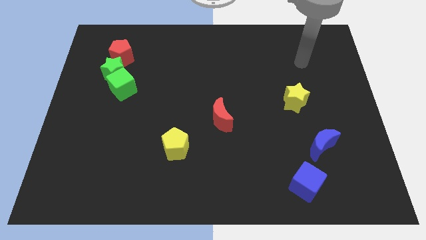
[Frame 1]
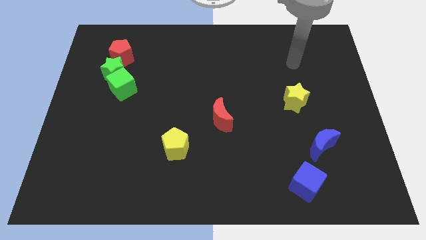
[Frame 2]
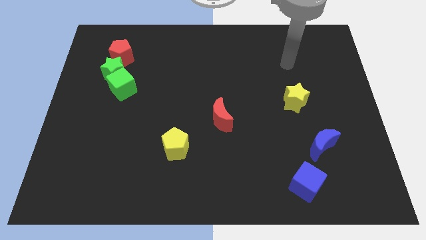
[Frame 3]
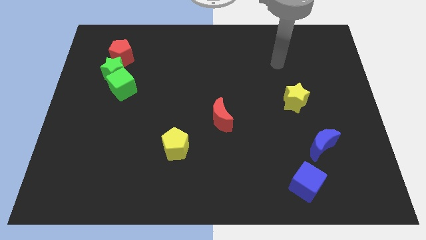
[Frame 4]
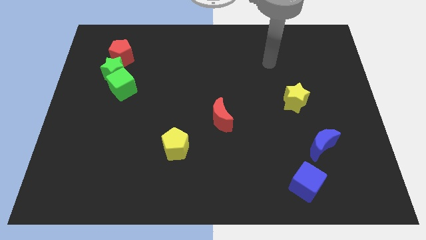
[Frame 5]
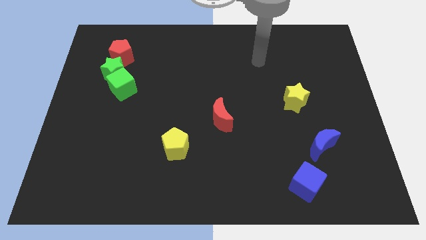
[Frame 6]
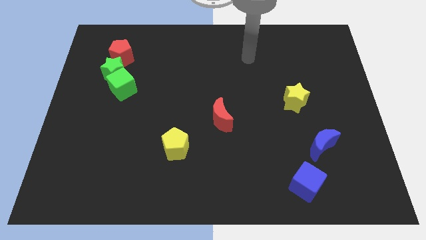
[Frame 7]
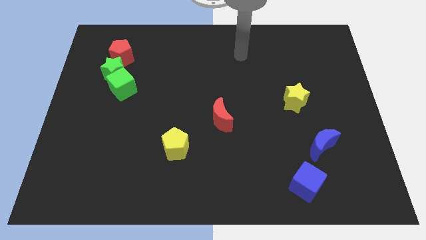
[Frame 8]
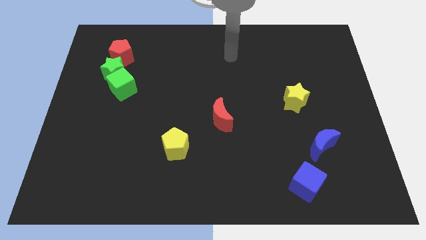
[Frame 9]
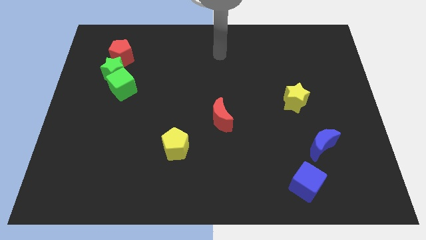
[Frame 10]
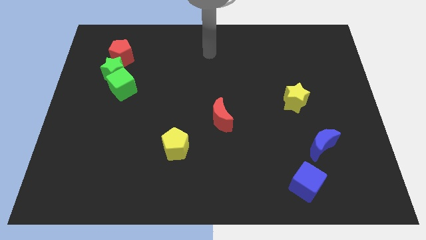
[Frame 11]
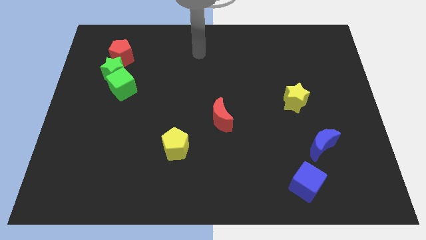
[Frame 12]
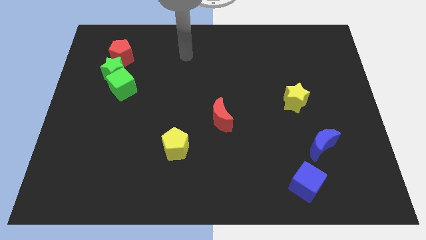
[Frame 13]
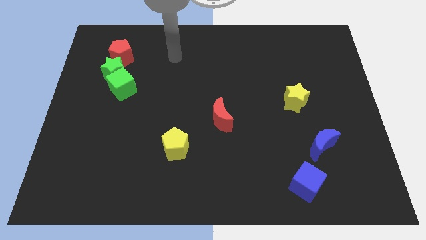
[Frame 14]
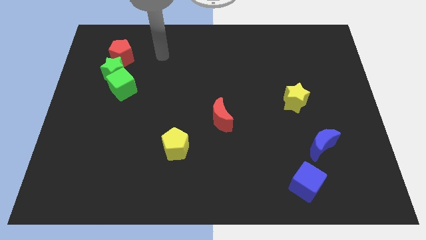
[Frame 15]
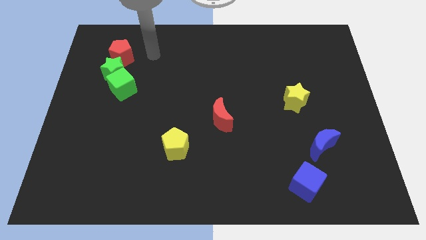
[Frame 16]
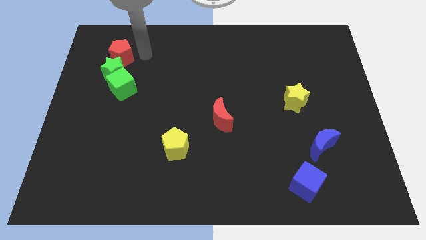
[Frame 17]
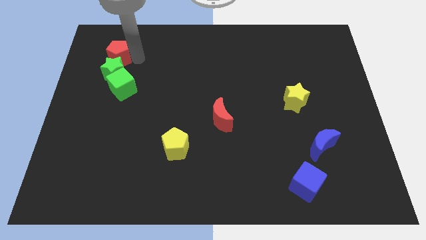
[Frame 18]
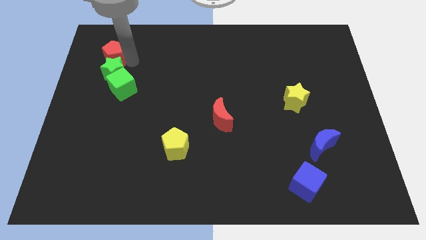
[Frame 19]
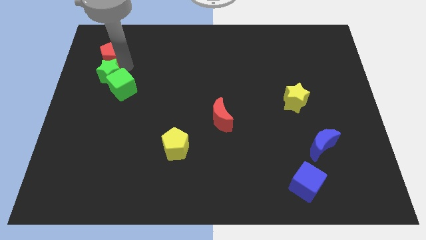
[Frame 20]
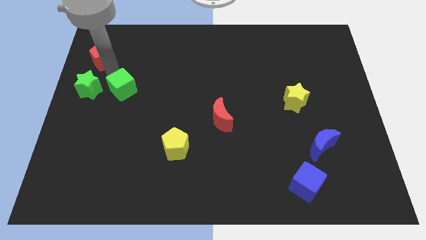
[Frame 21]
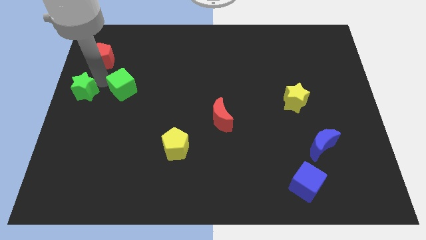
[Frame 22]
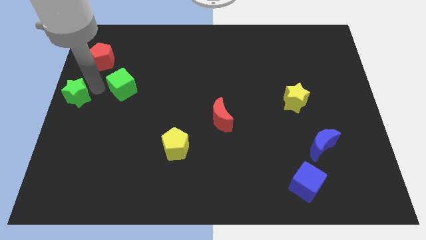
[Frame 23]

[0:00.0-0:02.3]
separate the green cube from the green star

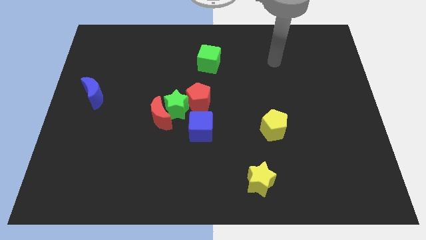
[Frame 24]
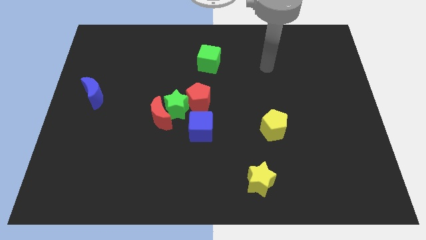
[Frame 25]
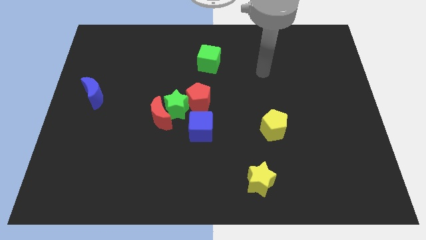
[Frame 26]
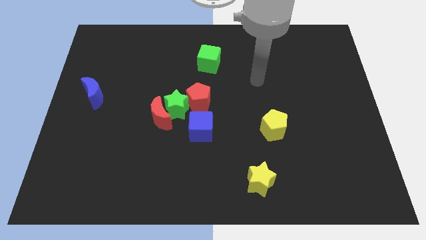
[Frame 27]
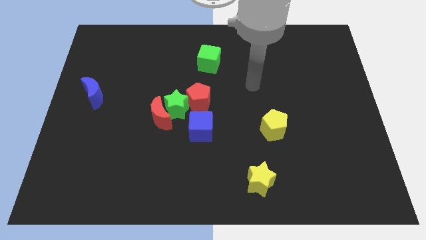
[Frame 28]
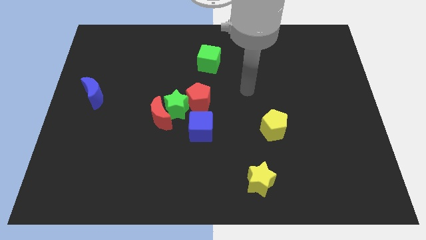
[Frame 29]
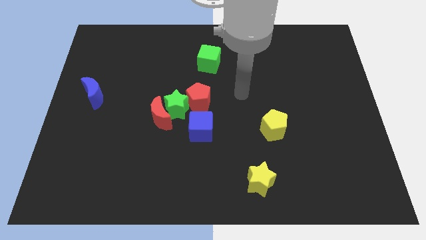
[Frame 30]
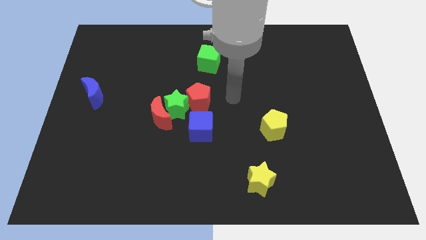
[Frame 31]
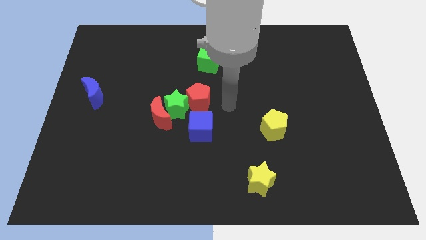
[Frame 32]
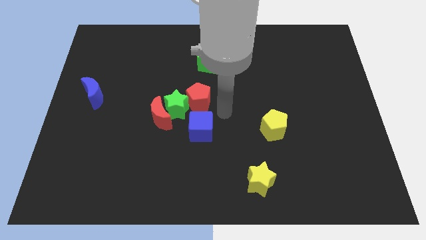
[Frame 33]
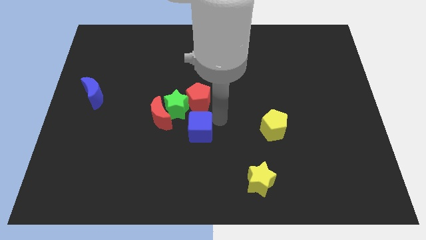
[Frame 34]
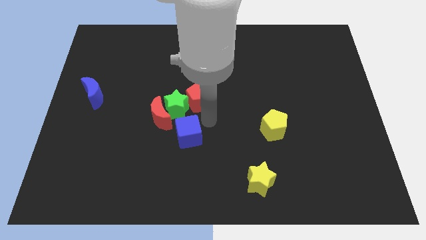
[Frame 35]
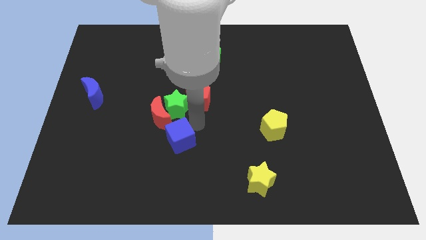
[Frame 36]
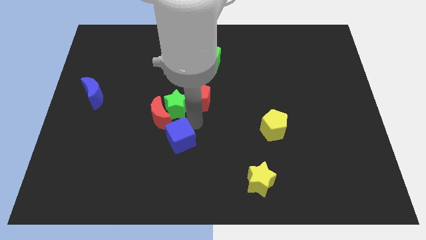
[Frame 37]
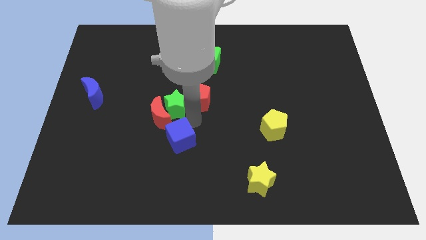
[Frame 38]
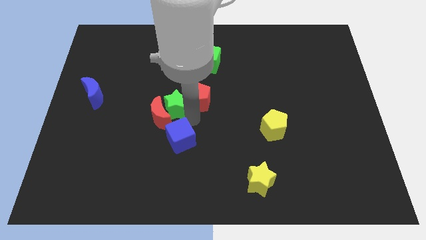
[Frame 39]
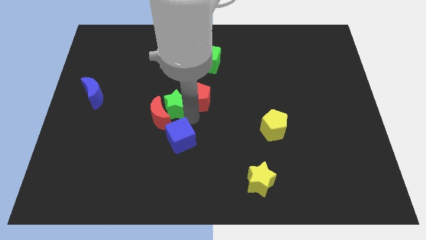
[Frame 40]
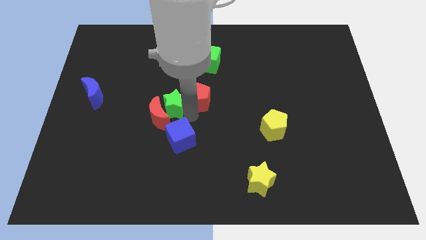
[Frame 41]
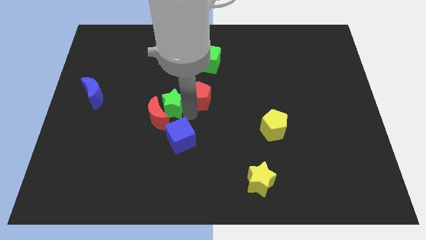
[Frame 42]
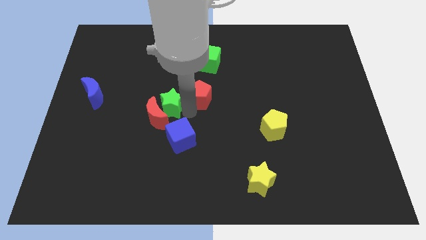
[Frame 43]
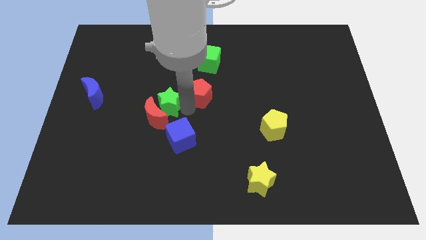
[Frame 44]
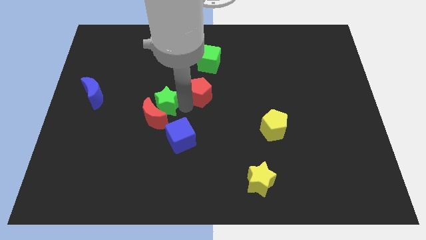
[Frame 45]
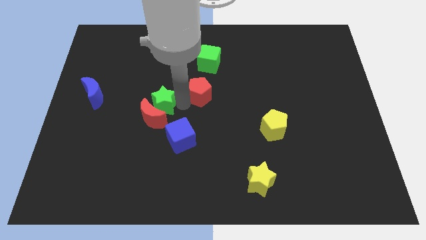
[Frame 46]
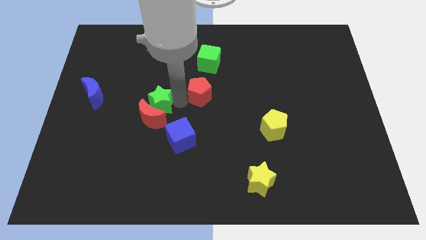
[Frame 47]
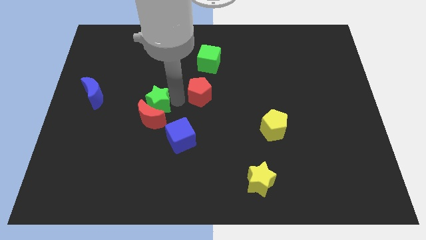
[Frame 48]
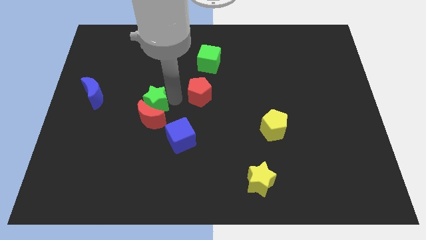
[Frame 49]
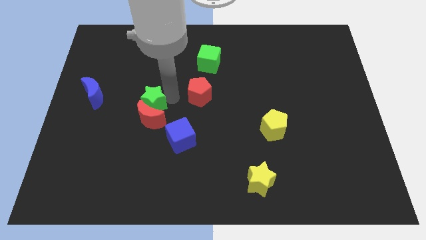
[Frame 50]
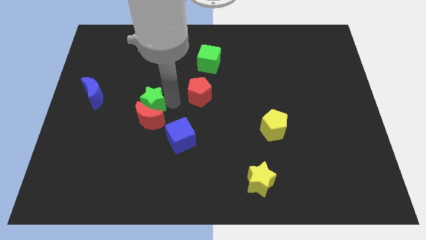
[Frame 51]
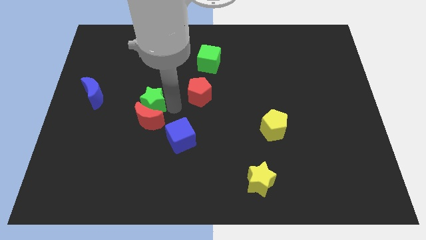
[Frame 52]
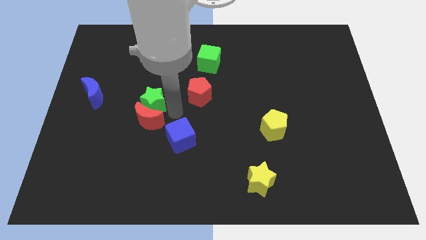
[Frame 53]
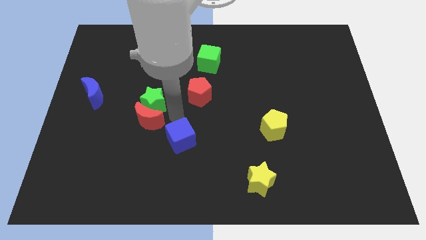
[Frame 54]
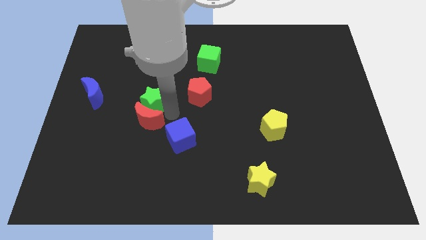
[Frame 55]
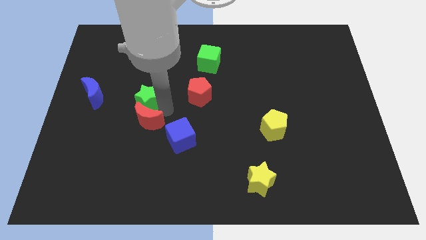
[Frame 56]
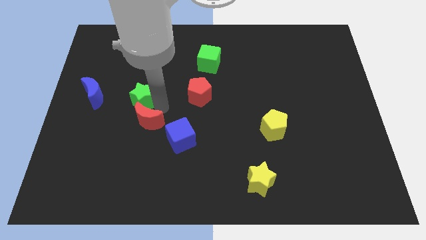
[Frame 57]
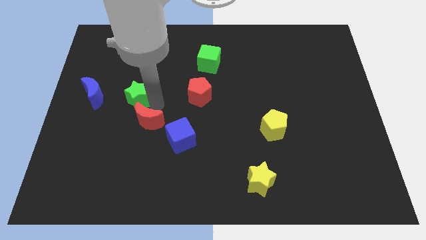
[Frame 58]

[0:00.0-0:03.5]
pull the green star apart from the group of blocks

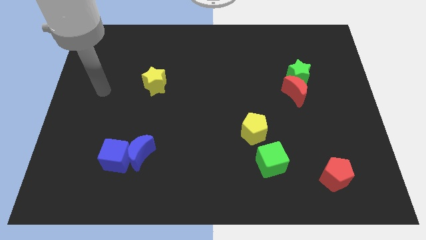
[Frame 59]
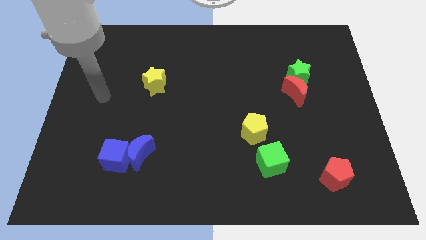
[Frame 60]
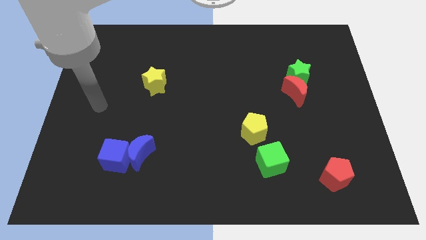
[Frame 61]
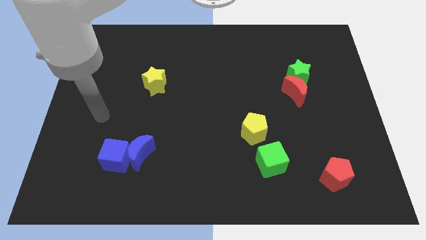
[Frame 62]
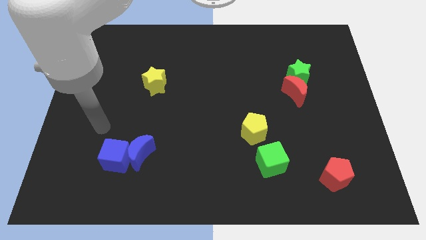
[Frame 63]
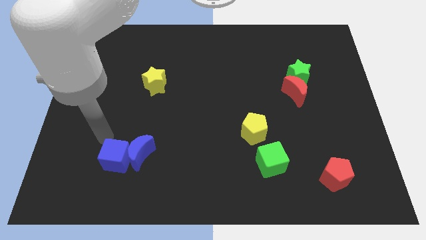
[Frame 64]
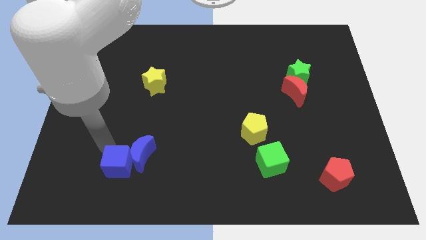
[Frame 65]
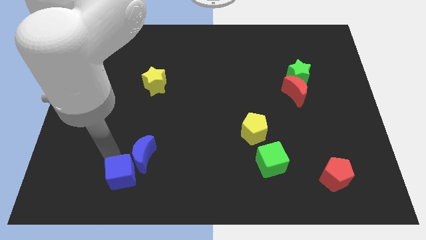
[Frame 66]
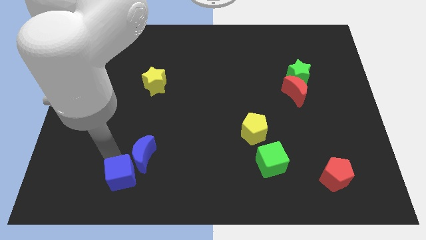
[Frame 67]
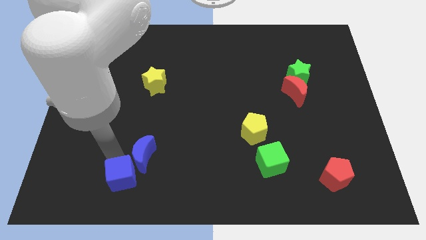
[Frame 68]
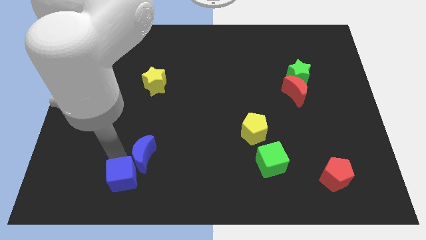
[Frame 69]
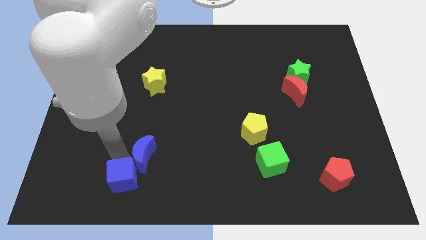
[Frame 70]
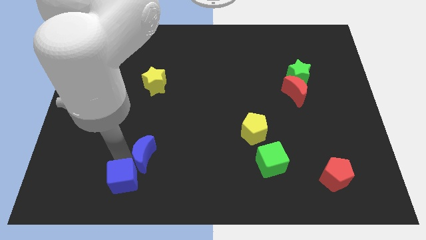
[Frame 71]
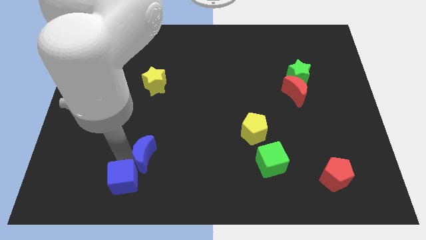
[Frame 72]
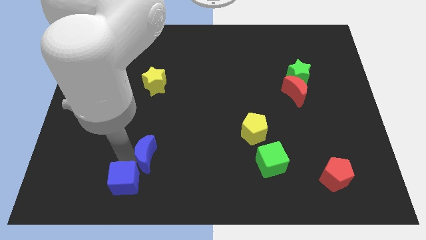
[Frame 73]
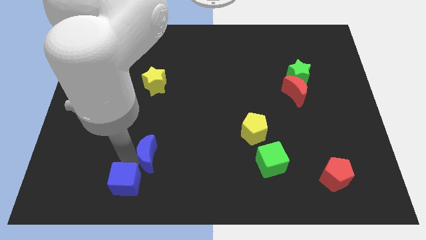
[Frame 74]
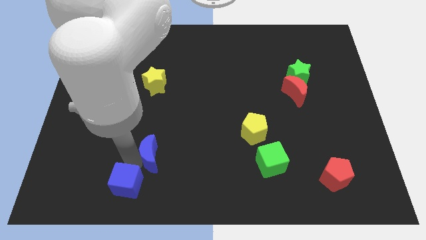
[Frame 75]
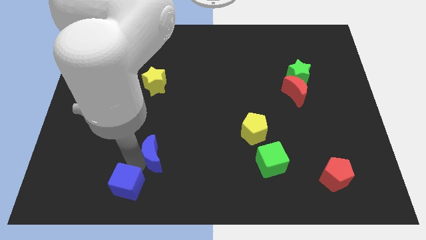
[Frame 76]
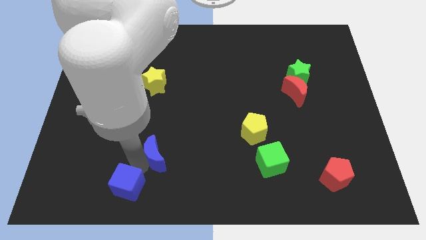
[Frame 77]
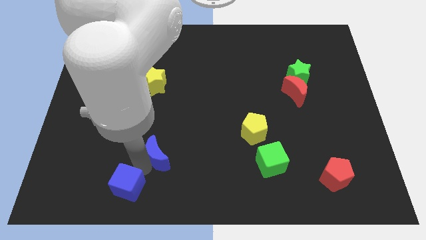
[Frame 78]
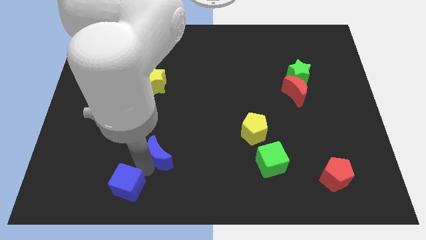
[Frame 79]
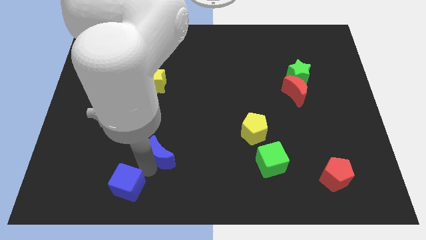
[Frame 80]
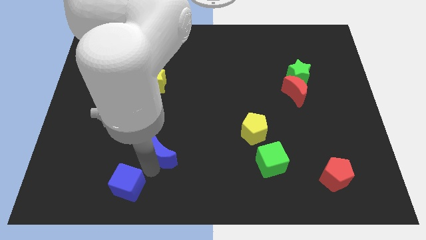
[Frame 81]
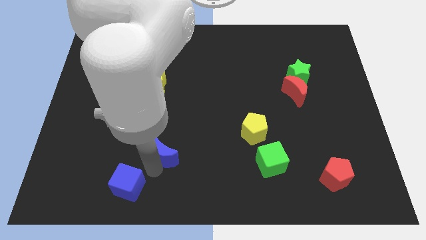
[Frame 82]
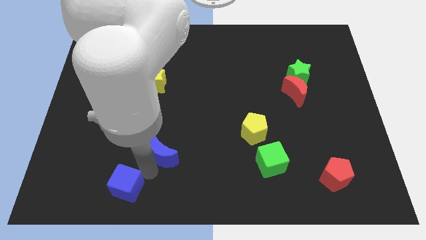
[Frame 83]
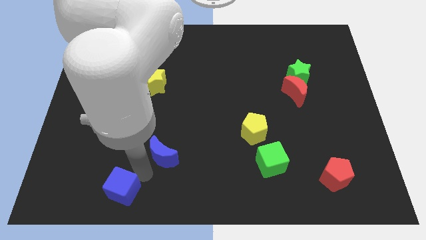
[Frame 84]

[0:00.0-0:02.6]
move the blue moon away from the blue cube

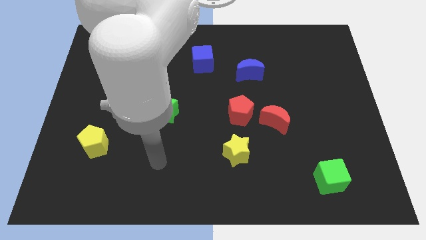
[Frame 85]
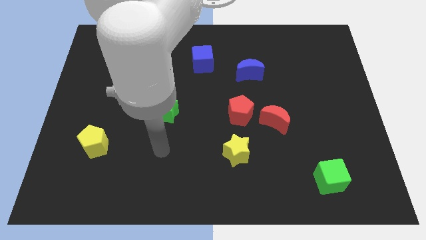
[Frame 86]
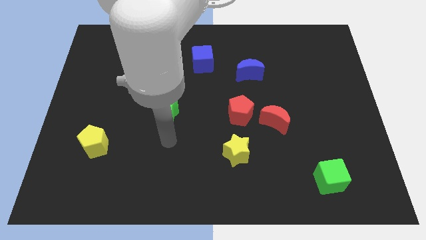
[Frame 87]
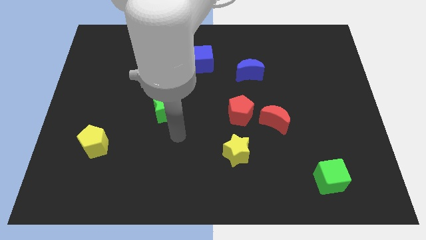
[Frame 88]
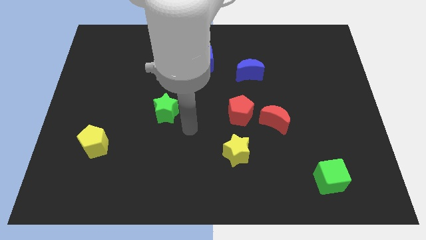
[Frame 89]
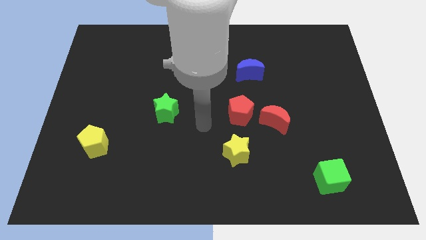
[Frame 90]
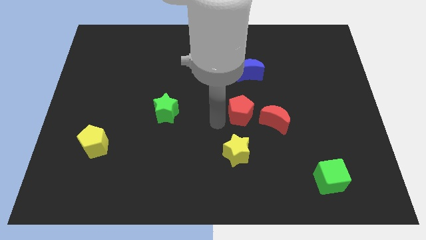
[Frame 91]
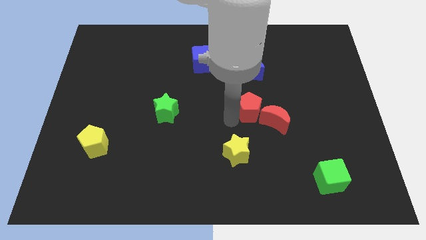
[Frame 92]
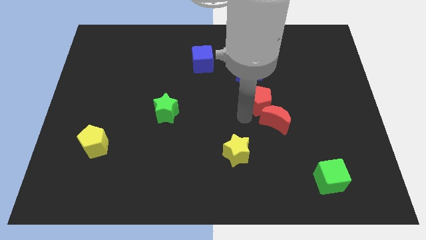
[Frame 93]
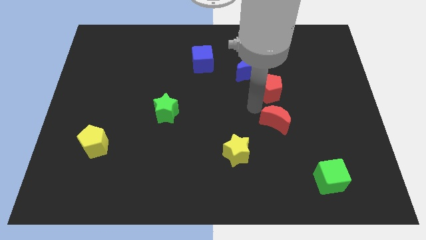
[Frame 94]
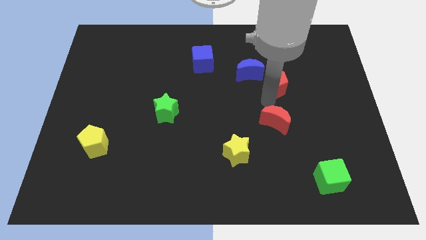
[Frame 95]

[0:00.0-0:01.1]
separate the red moon from the red pentagon
